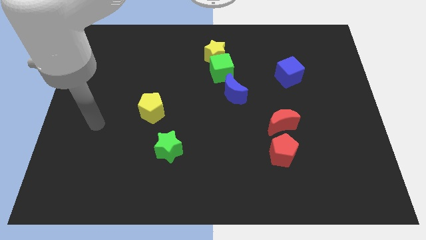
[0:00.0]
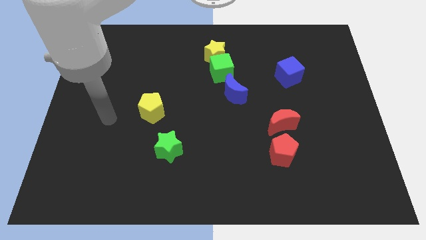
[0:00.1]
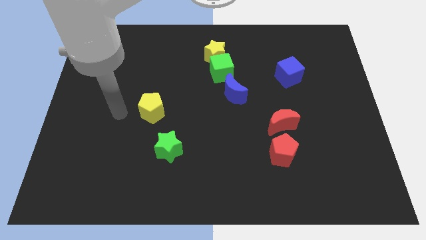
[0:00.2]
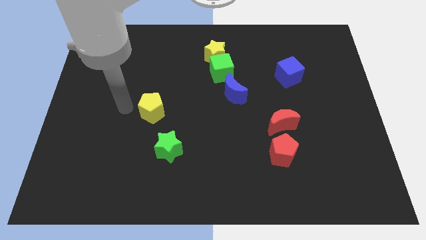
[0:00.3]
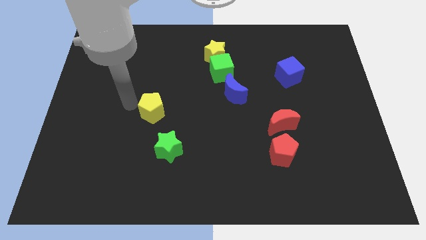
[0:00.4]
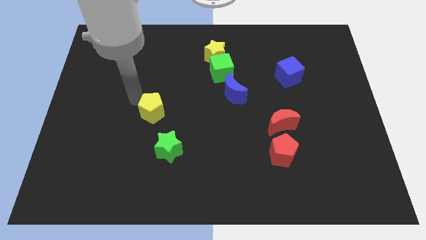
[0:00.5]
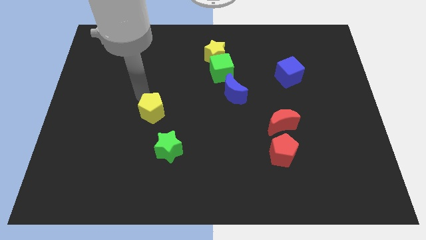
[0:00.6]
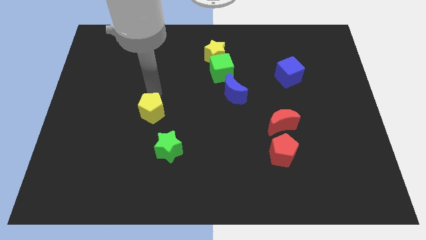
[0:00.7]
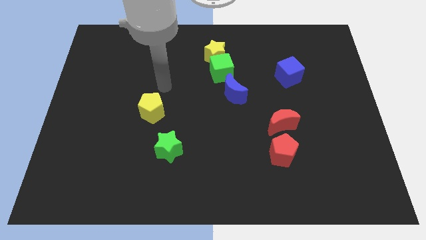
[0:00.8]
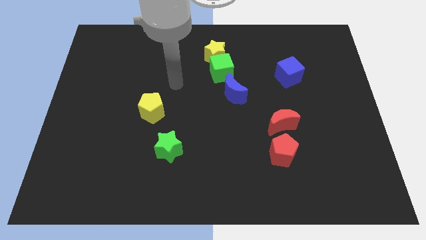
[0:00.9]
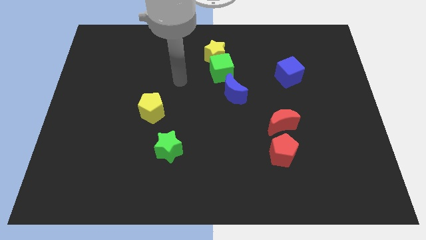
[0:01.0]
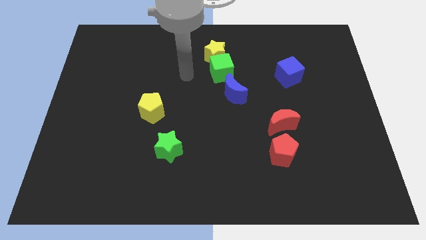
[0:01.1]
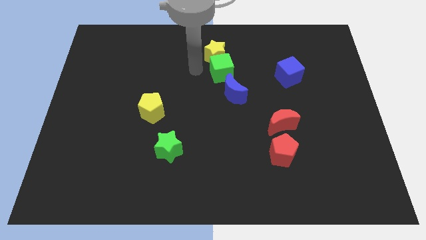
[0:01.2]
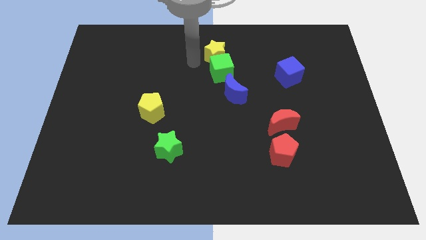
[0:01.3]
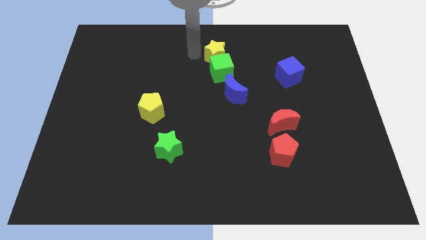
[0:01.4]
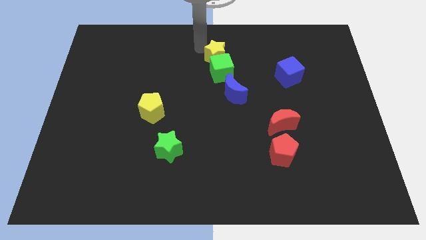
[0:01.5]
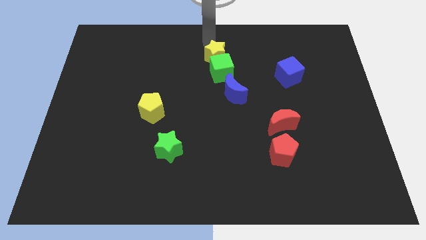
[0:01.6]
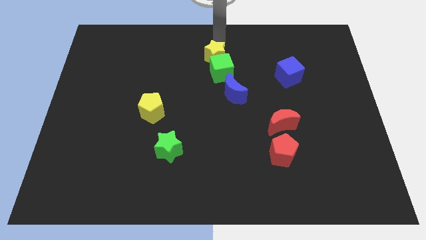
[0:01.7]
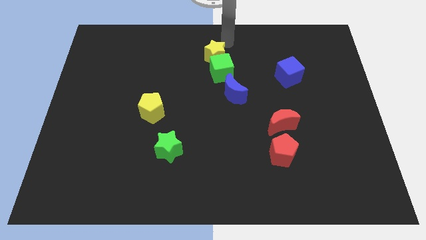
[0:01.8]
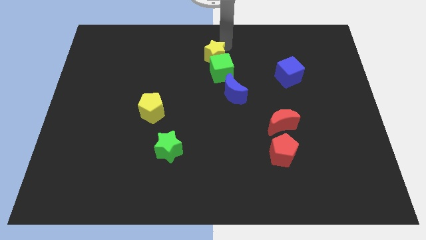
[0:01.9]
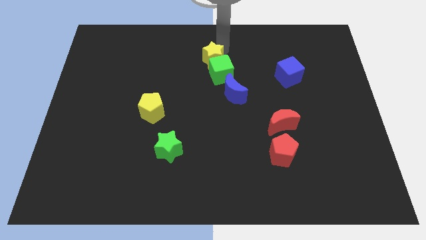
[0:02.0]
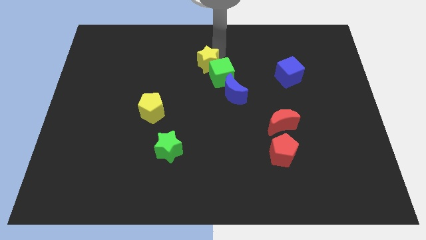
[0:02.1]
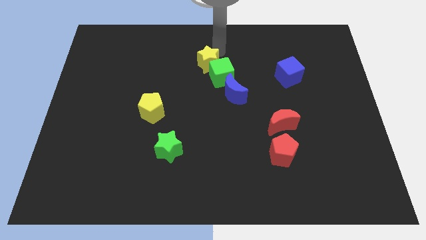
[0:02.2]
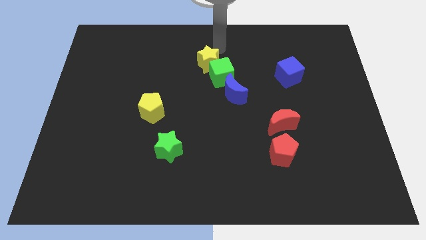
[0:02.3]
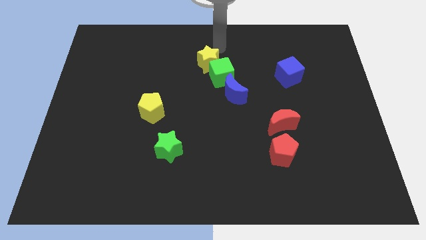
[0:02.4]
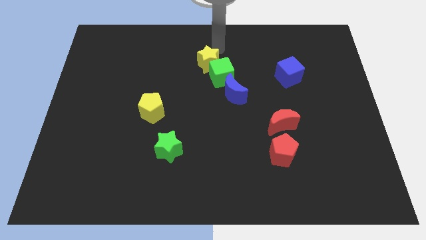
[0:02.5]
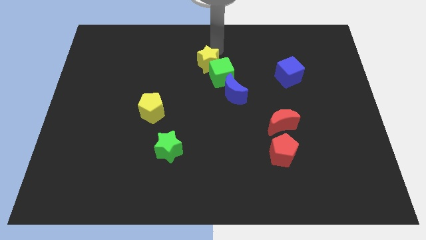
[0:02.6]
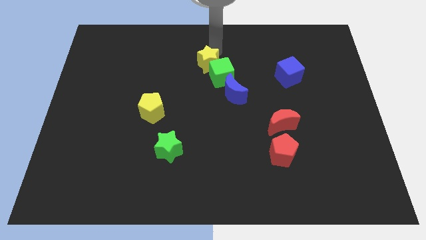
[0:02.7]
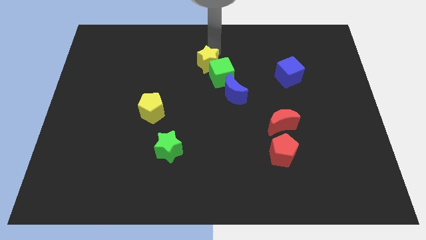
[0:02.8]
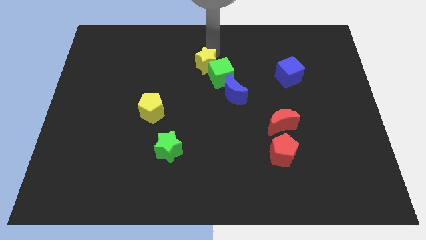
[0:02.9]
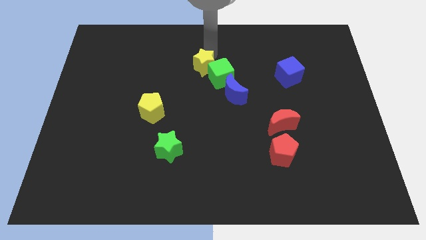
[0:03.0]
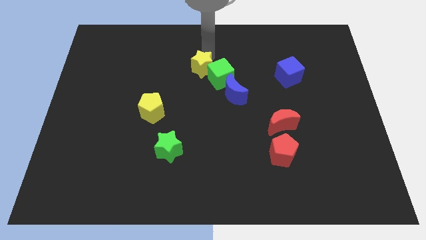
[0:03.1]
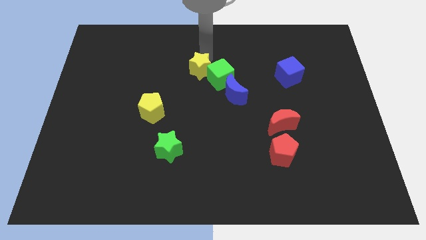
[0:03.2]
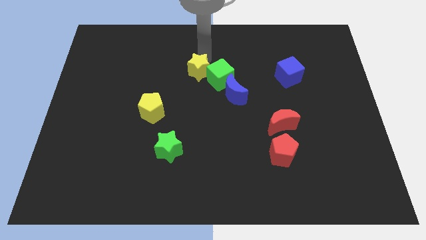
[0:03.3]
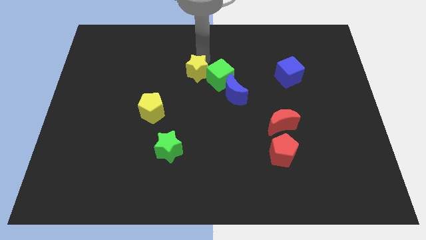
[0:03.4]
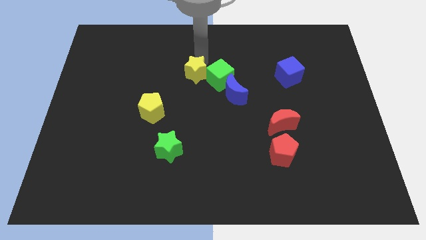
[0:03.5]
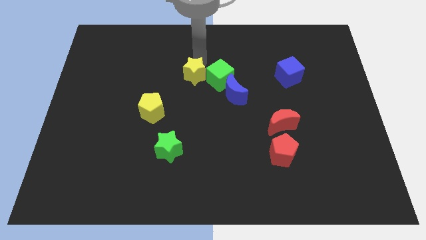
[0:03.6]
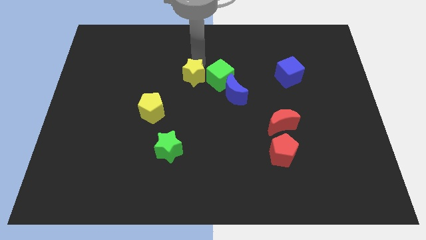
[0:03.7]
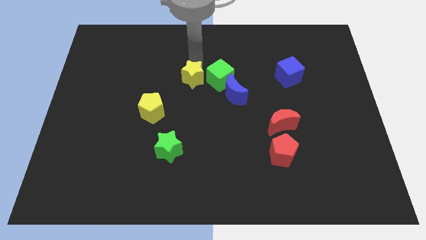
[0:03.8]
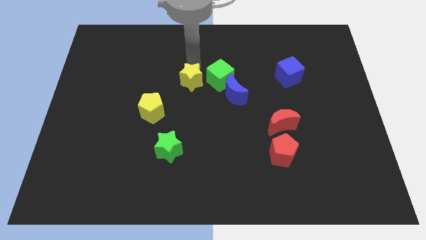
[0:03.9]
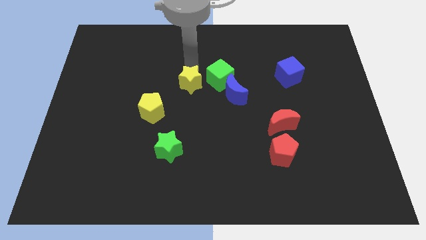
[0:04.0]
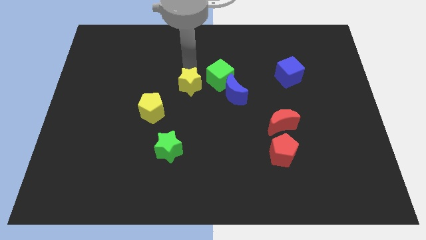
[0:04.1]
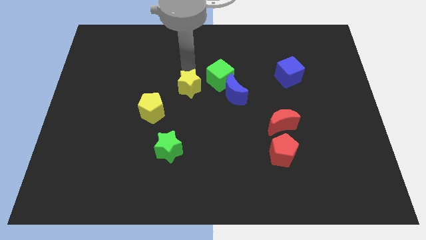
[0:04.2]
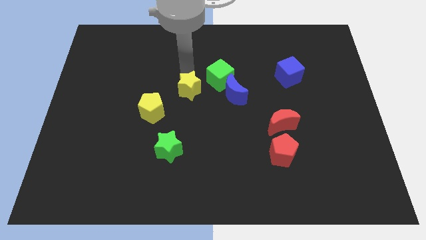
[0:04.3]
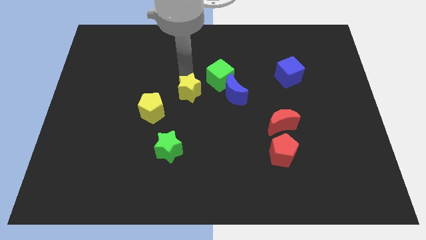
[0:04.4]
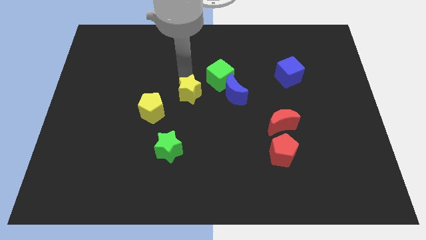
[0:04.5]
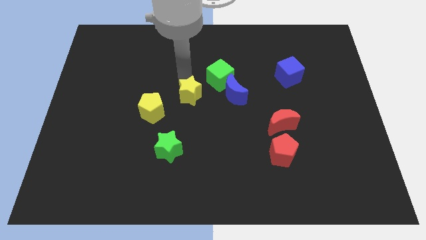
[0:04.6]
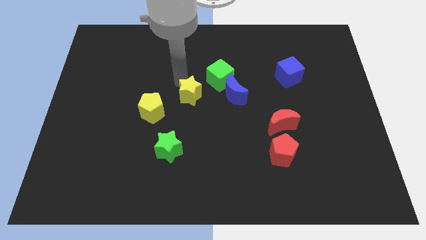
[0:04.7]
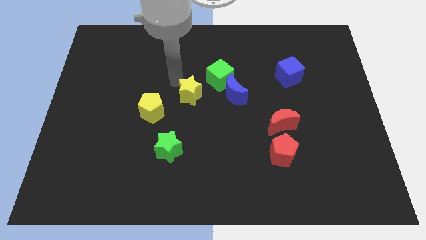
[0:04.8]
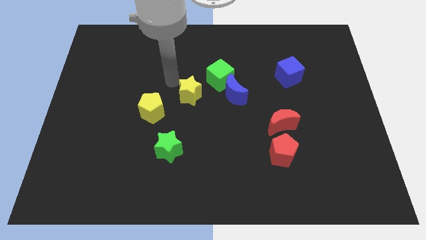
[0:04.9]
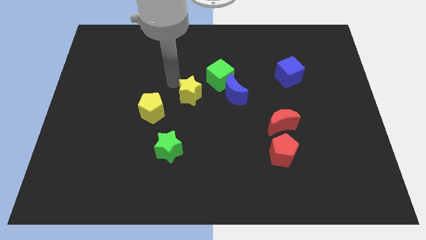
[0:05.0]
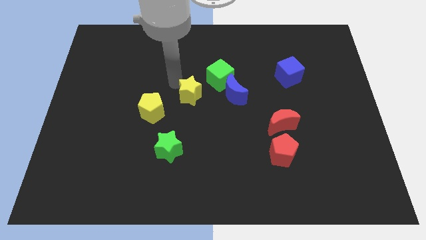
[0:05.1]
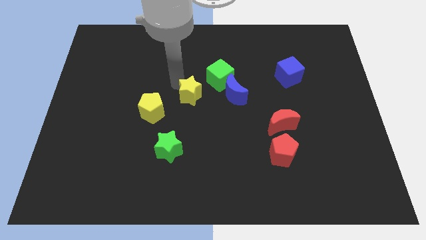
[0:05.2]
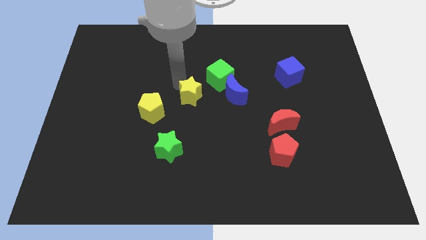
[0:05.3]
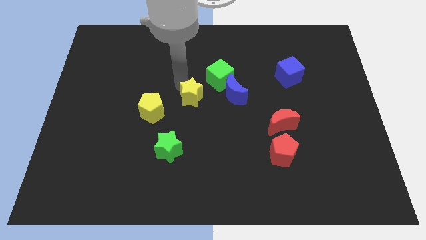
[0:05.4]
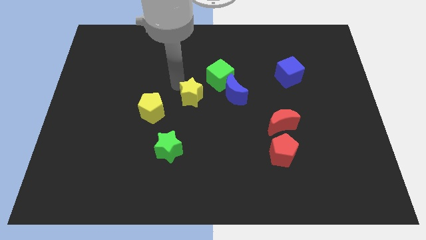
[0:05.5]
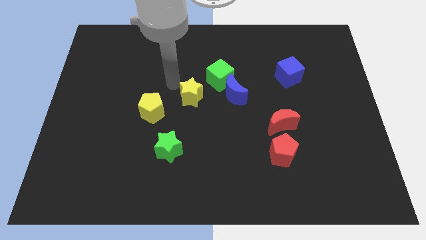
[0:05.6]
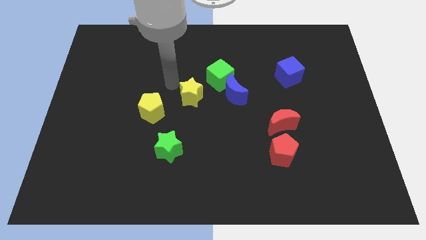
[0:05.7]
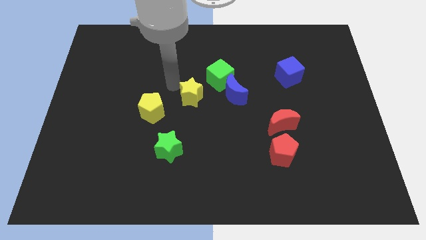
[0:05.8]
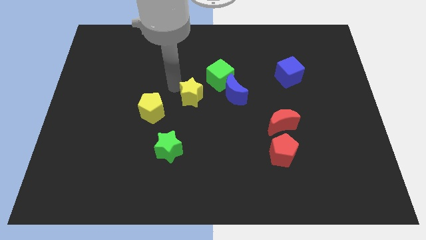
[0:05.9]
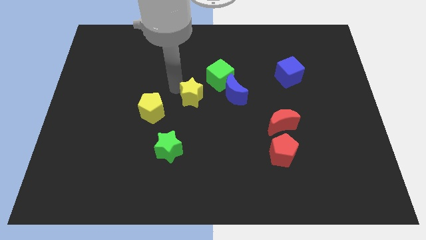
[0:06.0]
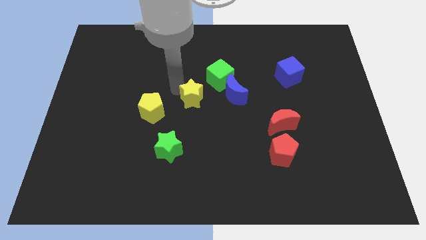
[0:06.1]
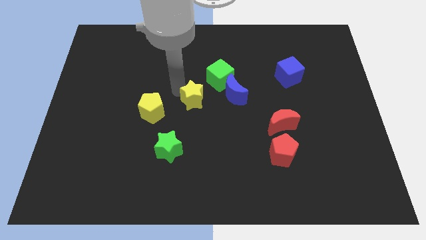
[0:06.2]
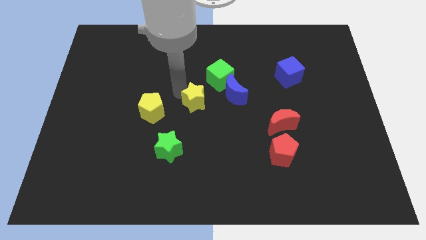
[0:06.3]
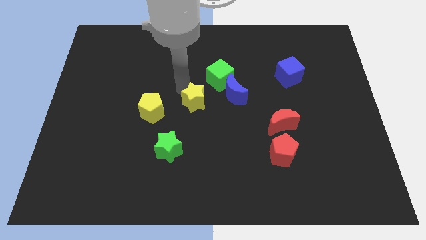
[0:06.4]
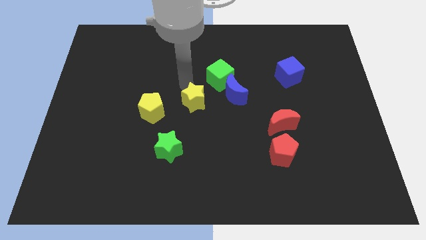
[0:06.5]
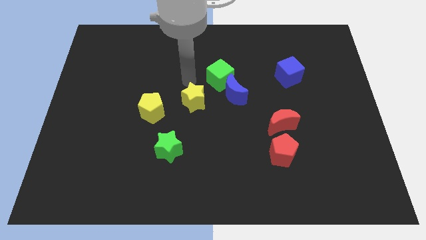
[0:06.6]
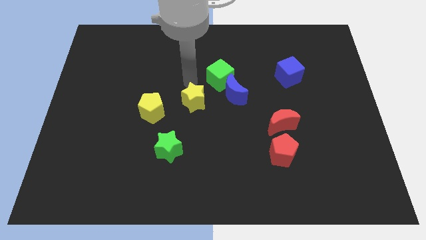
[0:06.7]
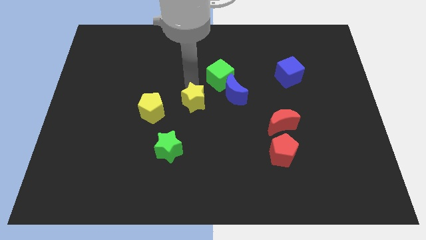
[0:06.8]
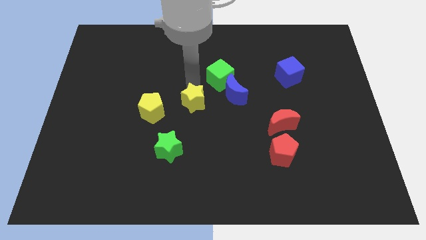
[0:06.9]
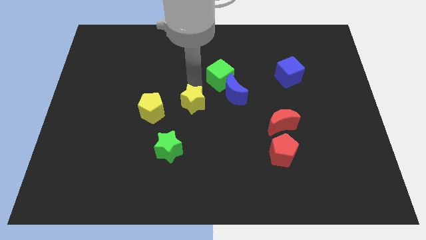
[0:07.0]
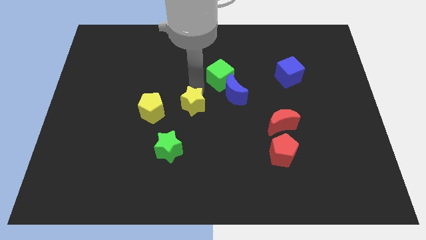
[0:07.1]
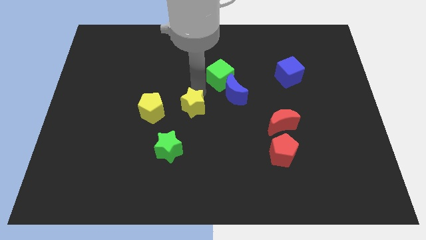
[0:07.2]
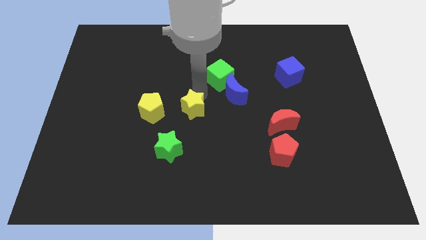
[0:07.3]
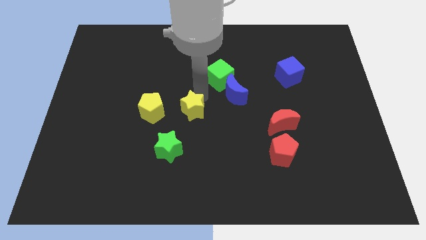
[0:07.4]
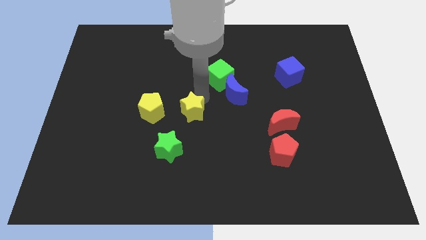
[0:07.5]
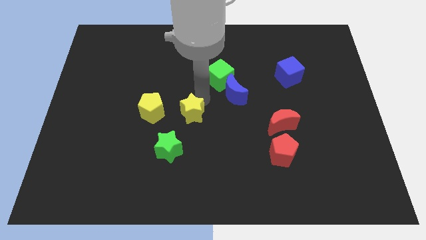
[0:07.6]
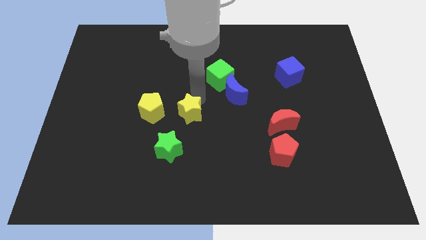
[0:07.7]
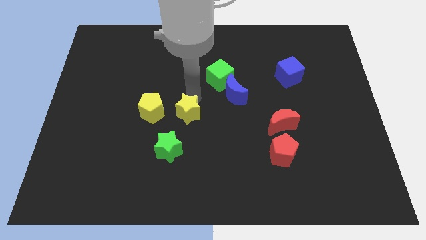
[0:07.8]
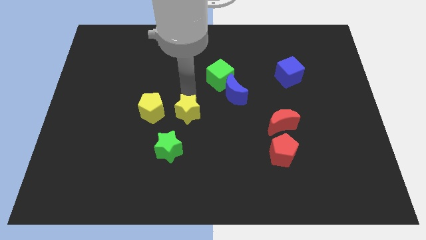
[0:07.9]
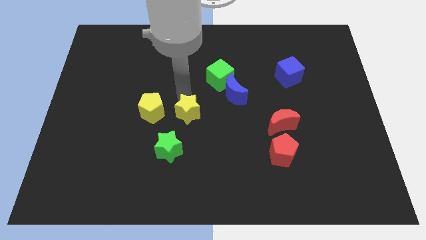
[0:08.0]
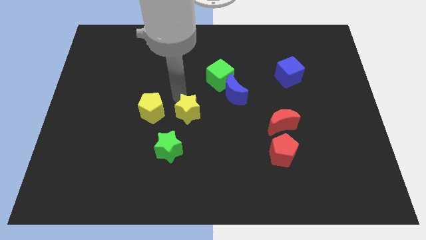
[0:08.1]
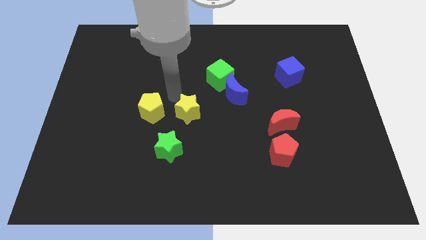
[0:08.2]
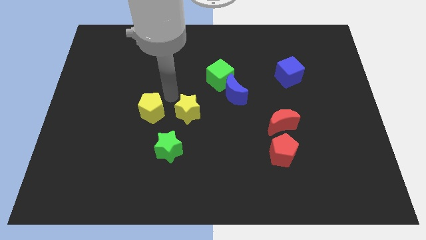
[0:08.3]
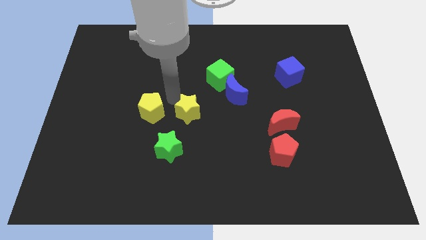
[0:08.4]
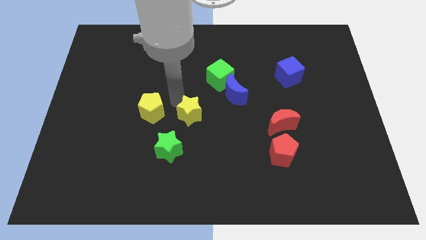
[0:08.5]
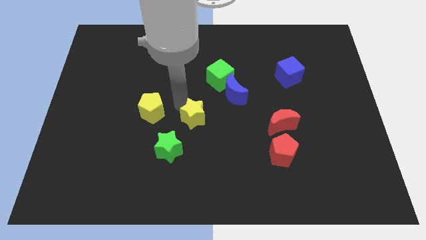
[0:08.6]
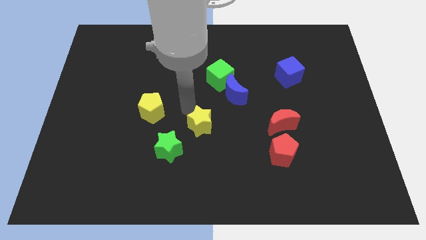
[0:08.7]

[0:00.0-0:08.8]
move the yellow star down
